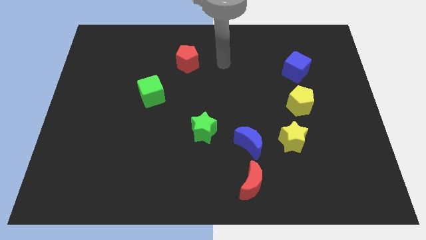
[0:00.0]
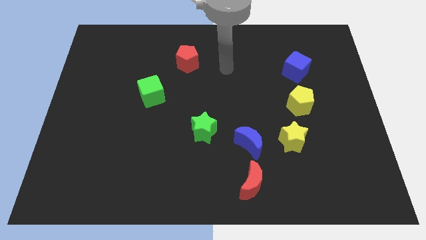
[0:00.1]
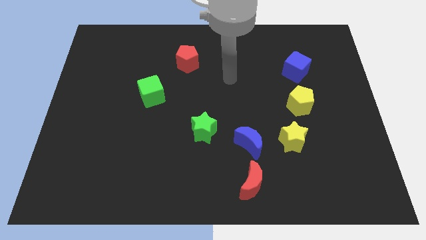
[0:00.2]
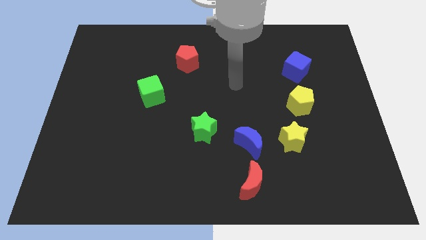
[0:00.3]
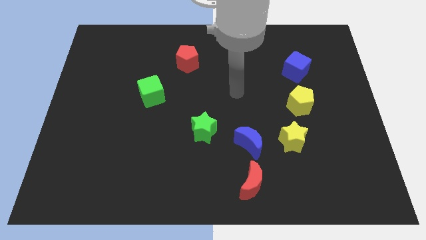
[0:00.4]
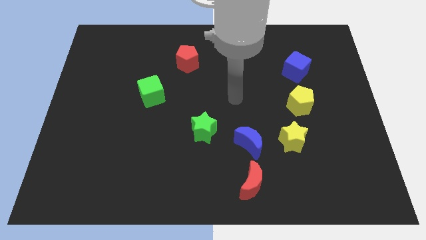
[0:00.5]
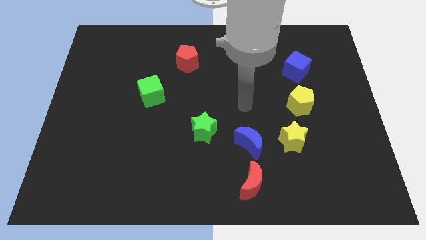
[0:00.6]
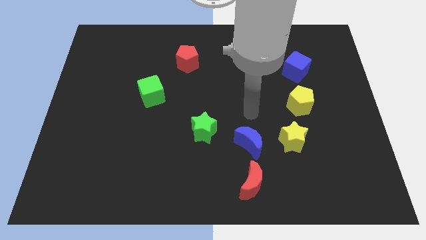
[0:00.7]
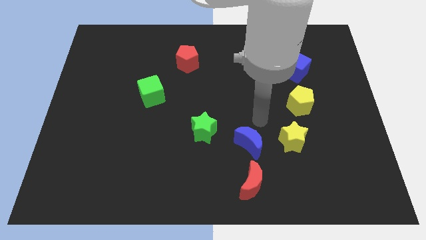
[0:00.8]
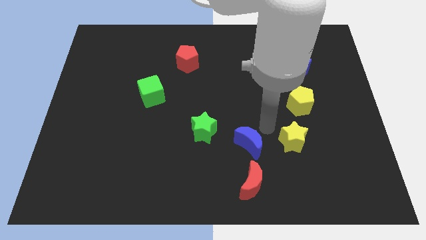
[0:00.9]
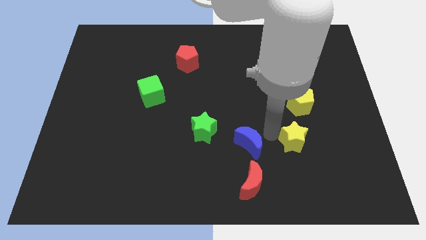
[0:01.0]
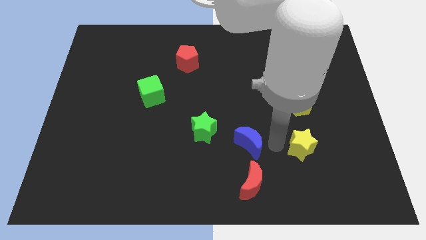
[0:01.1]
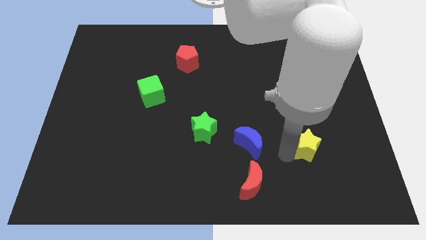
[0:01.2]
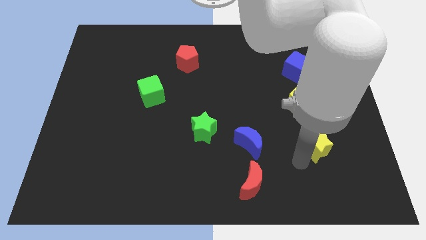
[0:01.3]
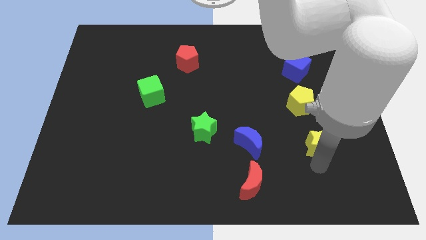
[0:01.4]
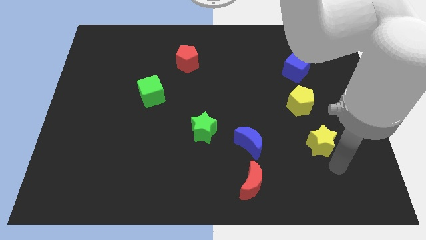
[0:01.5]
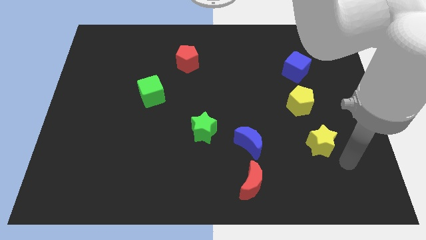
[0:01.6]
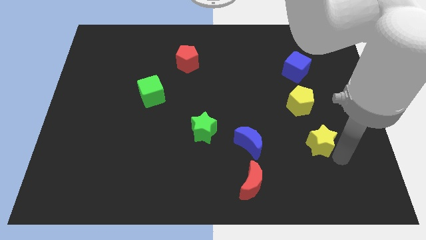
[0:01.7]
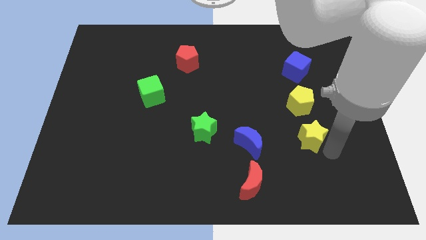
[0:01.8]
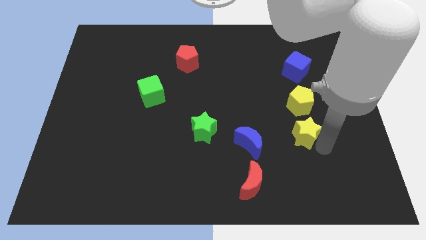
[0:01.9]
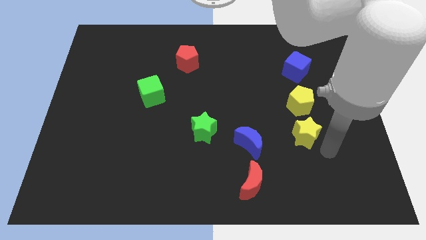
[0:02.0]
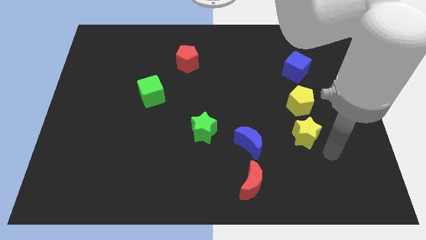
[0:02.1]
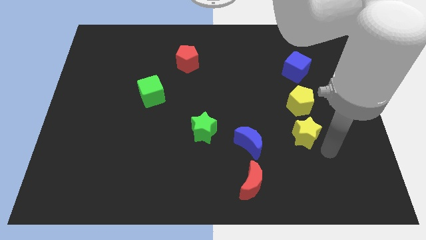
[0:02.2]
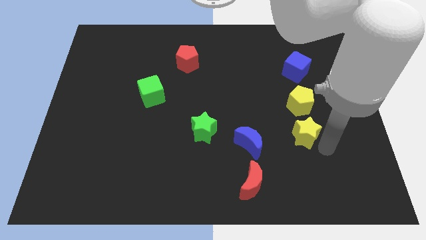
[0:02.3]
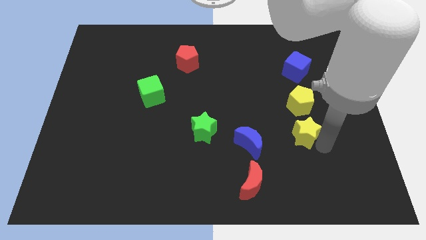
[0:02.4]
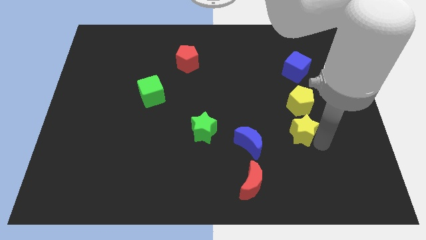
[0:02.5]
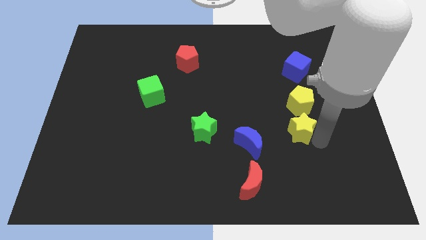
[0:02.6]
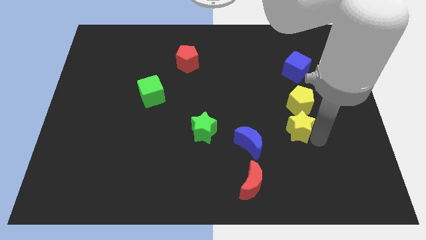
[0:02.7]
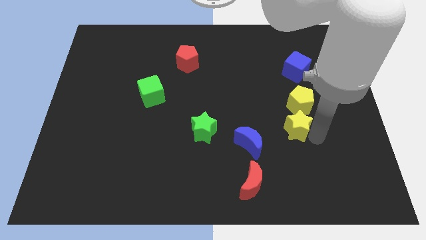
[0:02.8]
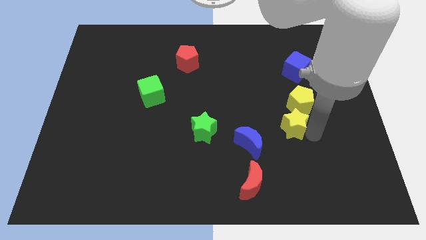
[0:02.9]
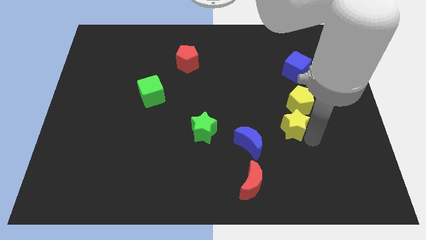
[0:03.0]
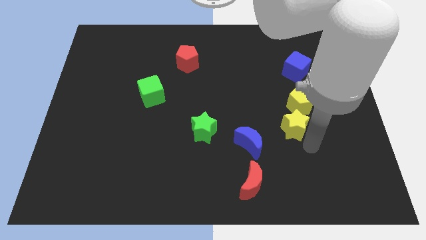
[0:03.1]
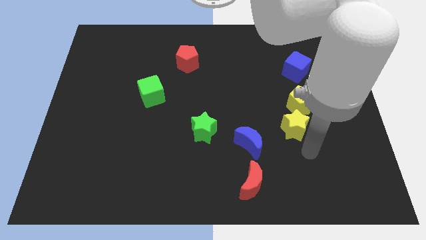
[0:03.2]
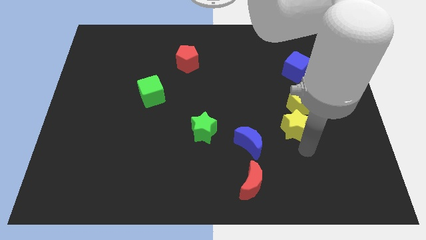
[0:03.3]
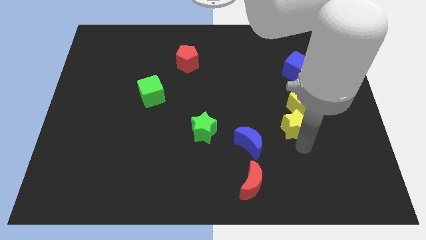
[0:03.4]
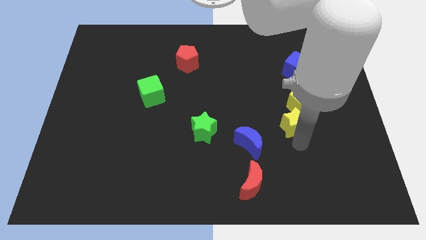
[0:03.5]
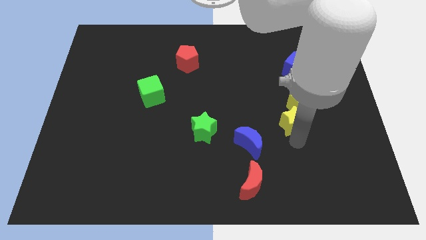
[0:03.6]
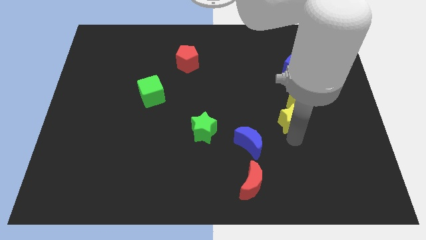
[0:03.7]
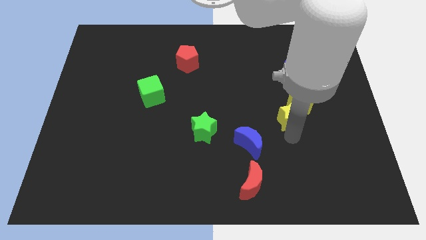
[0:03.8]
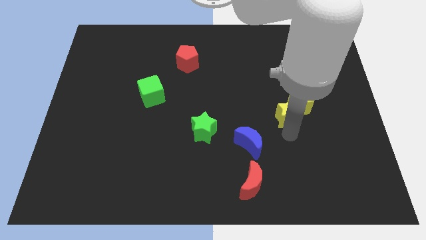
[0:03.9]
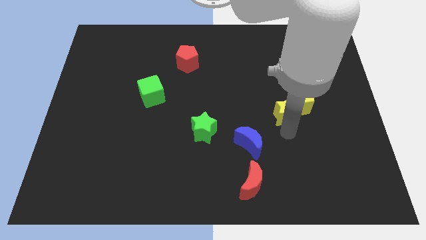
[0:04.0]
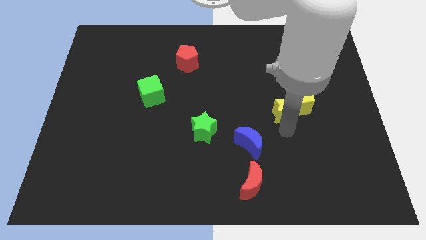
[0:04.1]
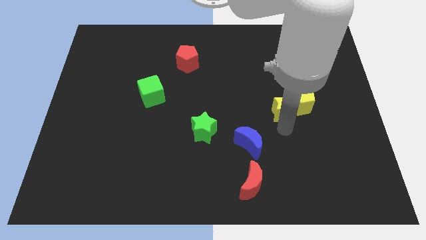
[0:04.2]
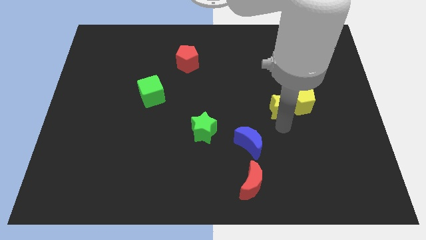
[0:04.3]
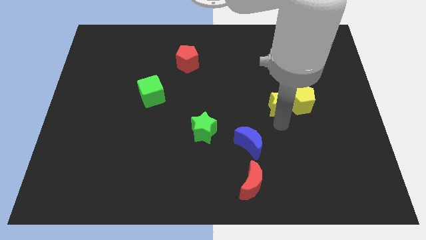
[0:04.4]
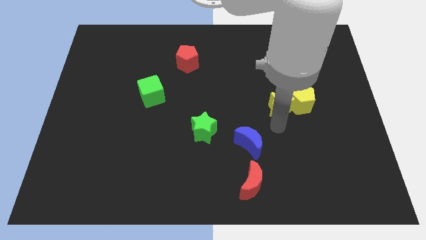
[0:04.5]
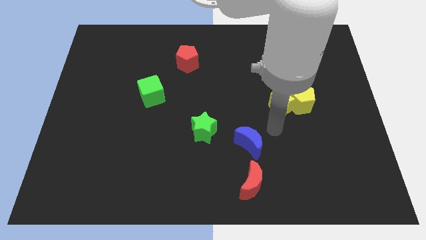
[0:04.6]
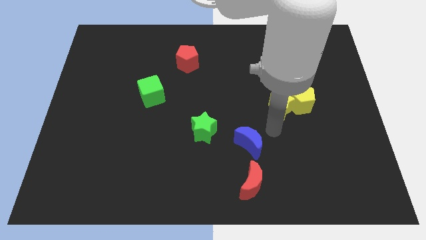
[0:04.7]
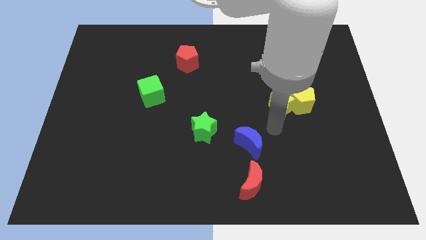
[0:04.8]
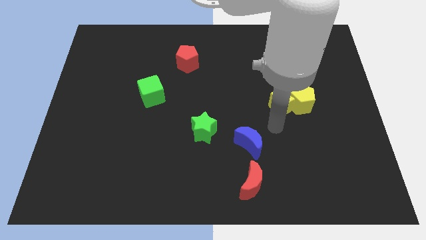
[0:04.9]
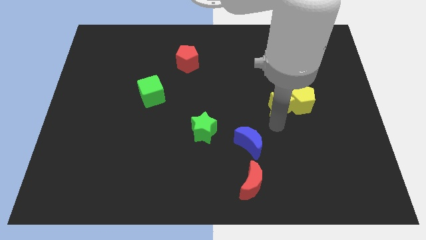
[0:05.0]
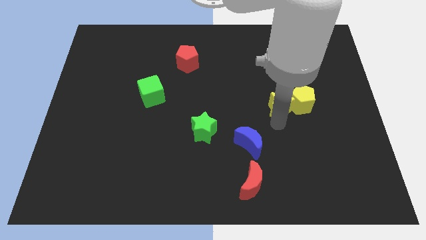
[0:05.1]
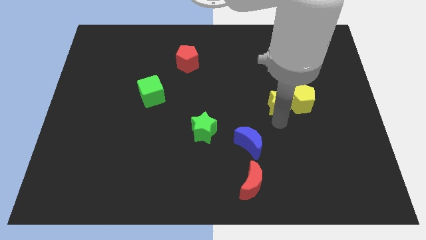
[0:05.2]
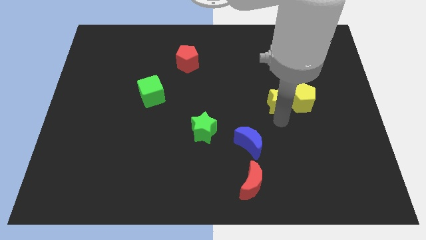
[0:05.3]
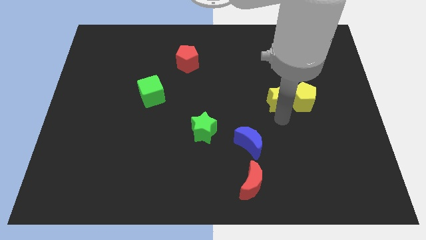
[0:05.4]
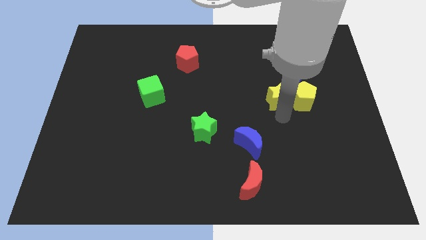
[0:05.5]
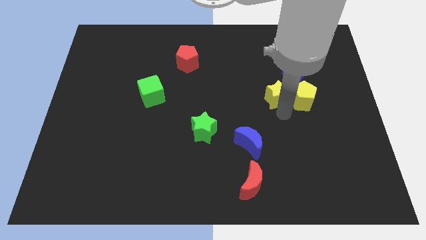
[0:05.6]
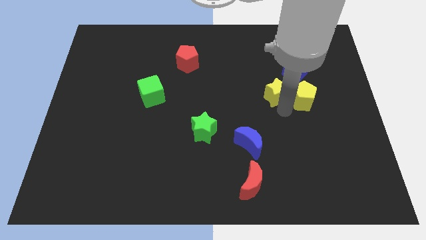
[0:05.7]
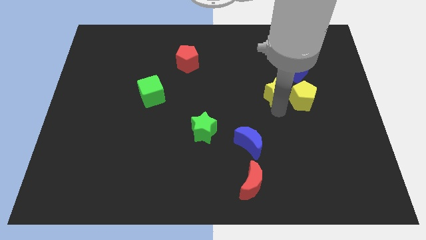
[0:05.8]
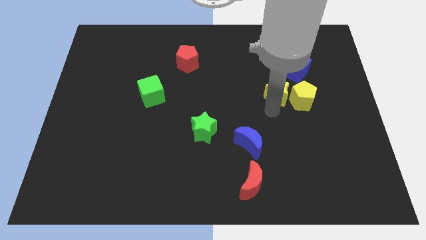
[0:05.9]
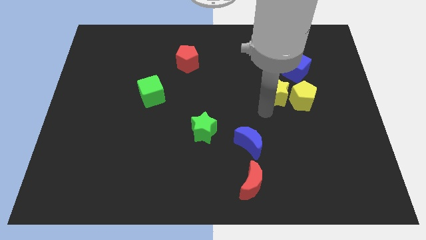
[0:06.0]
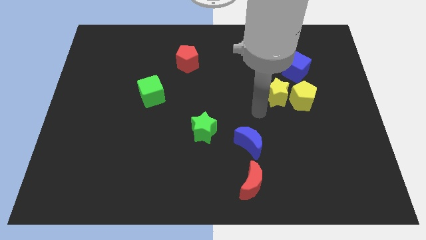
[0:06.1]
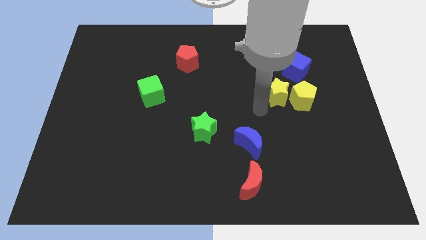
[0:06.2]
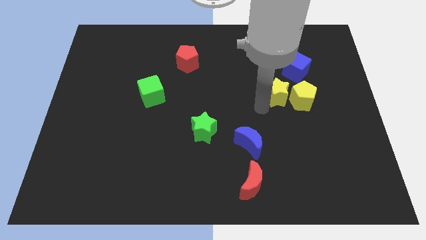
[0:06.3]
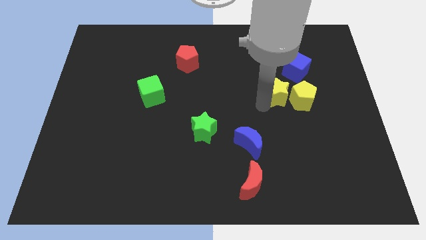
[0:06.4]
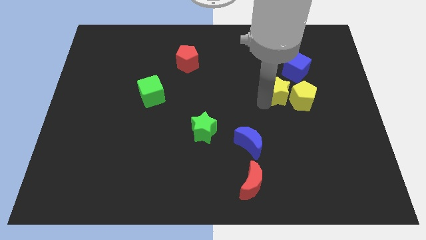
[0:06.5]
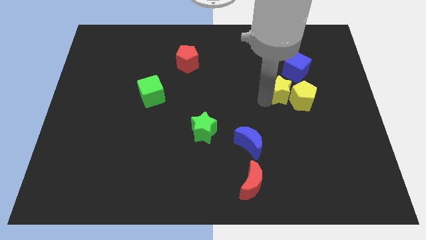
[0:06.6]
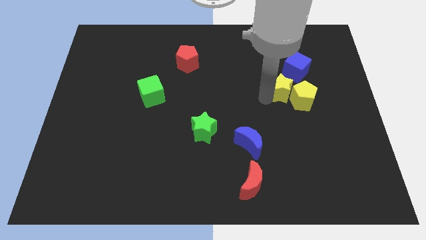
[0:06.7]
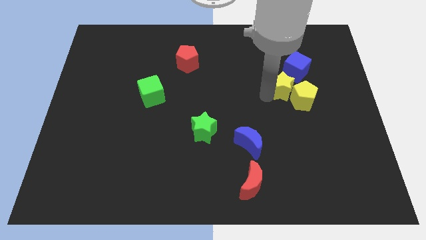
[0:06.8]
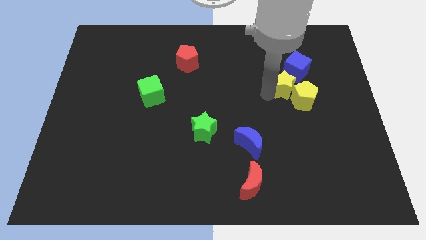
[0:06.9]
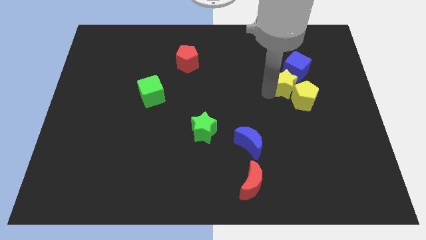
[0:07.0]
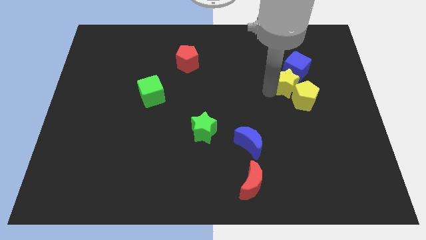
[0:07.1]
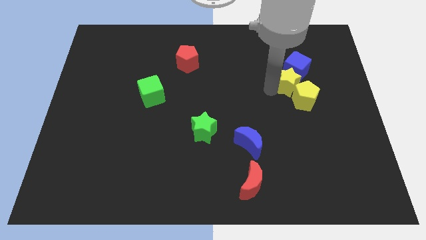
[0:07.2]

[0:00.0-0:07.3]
move the yellow star next to the blue cube

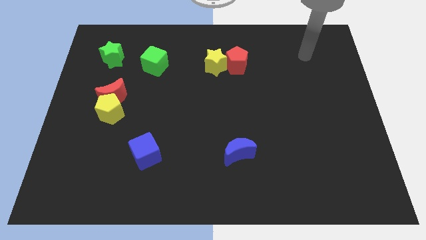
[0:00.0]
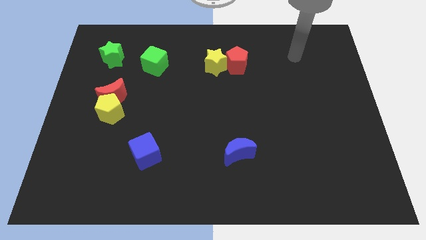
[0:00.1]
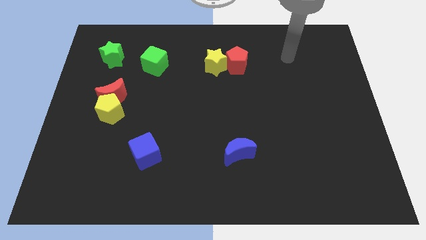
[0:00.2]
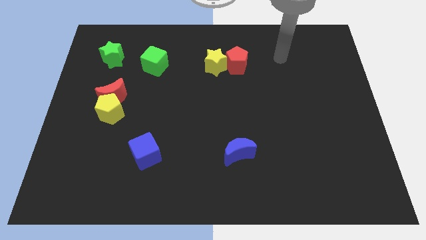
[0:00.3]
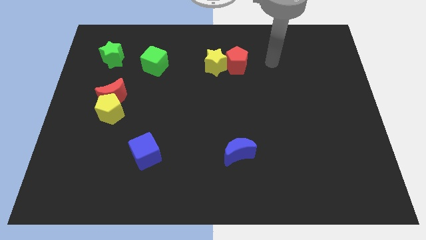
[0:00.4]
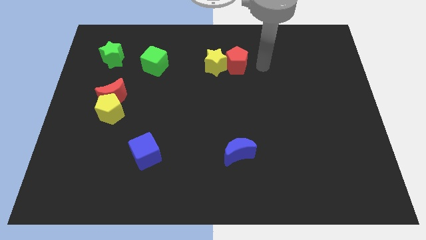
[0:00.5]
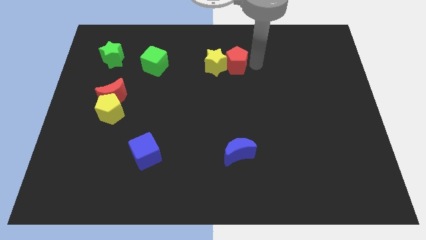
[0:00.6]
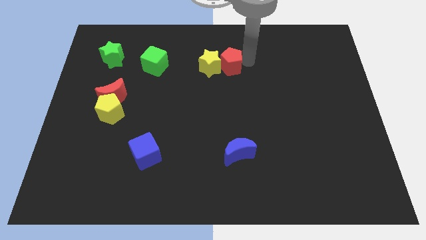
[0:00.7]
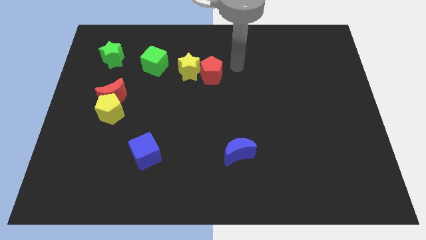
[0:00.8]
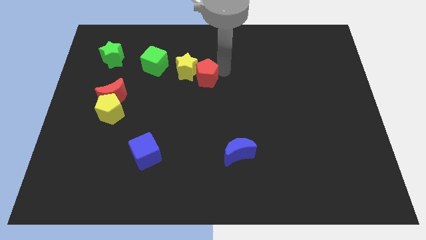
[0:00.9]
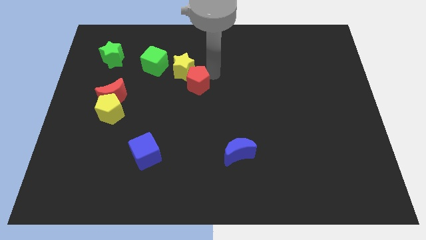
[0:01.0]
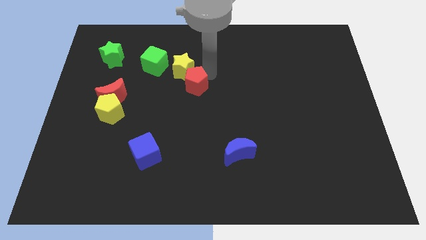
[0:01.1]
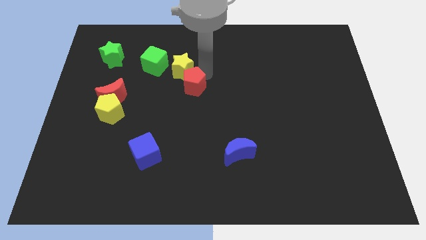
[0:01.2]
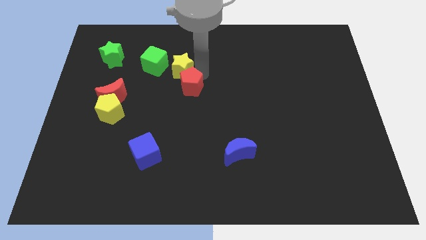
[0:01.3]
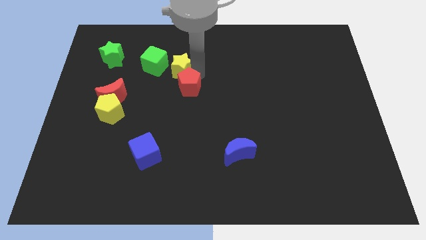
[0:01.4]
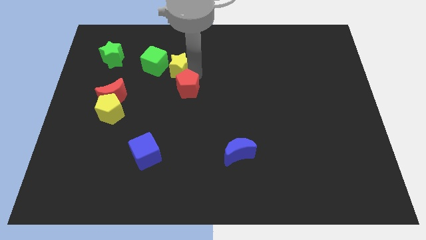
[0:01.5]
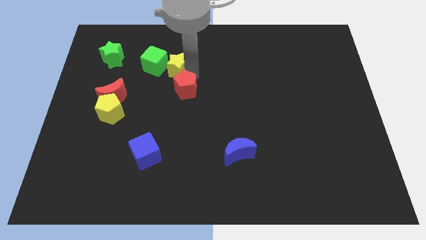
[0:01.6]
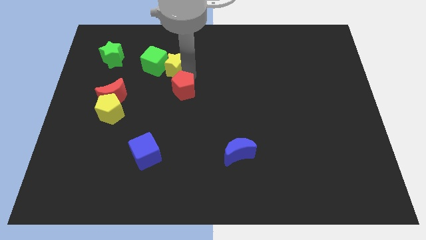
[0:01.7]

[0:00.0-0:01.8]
slide the yellow star to the green cube
